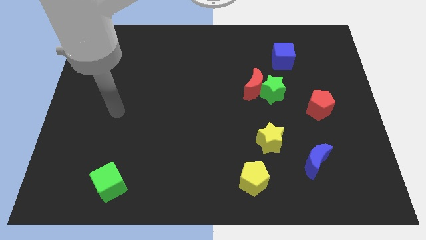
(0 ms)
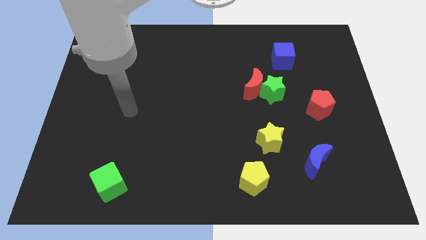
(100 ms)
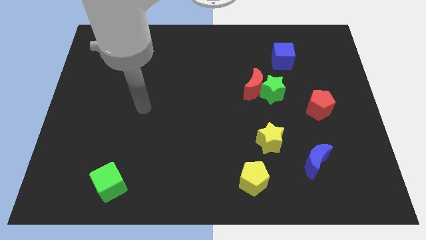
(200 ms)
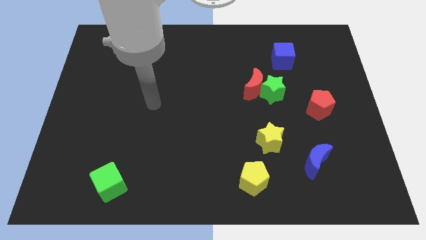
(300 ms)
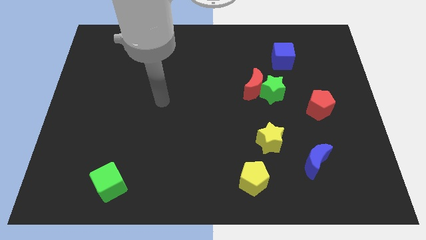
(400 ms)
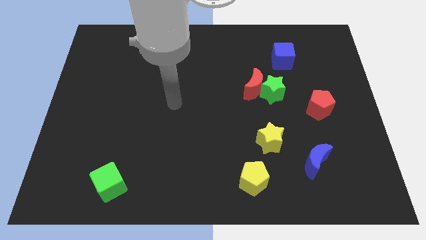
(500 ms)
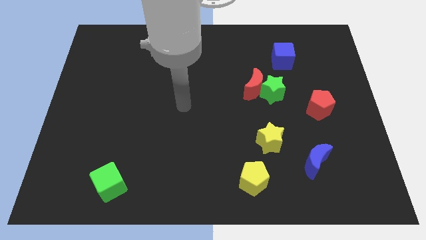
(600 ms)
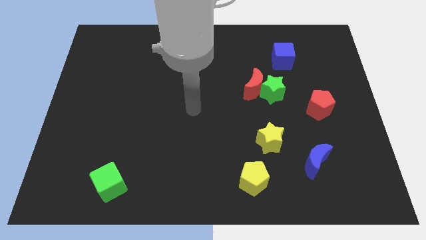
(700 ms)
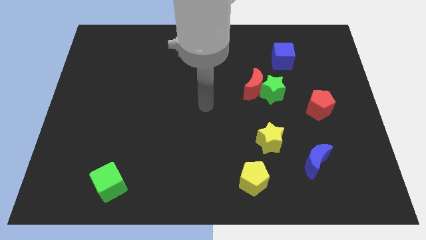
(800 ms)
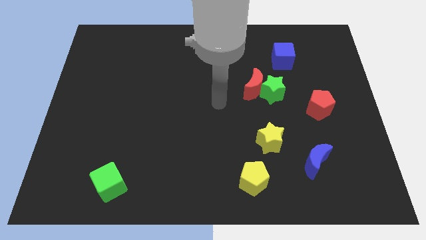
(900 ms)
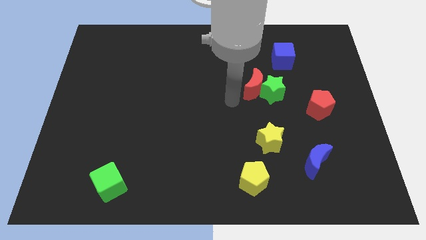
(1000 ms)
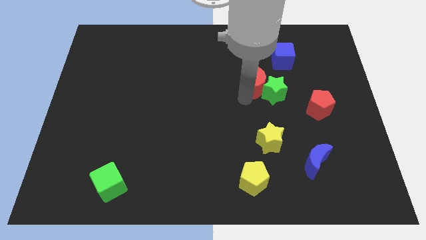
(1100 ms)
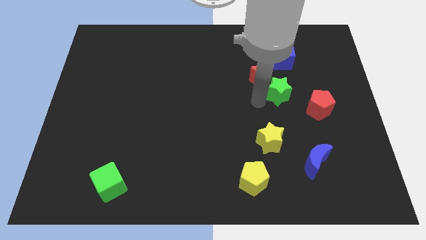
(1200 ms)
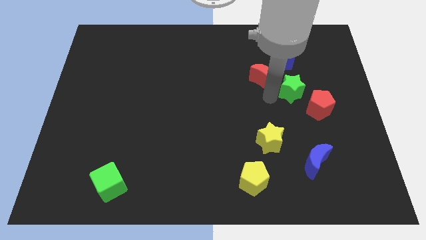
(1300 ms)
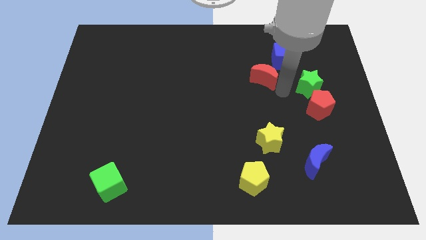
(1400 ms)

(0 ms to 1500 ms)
move the red moon away from the green star

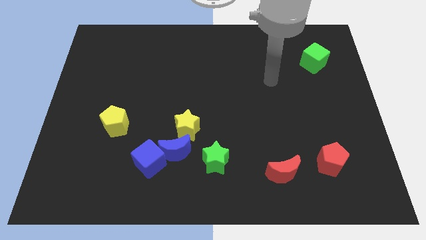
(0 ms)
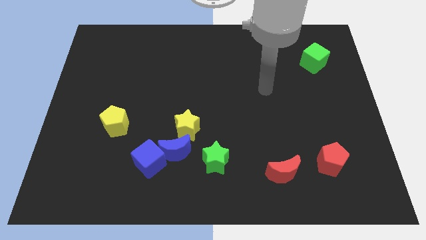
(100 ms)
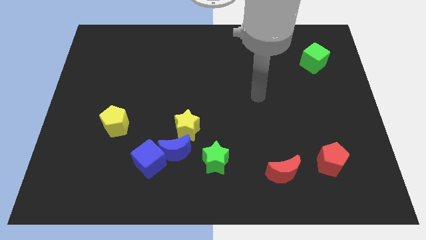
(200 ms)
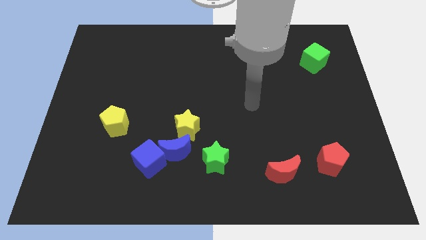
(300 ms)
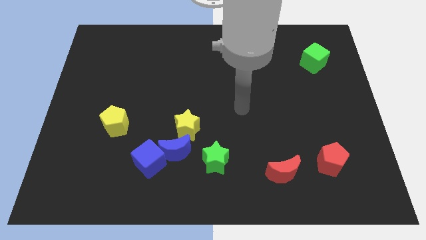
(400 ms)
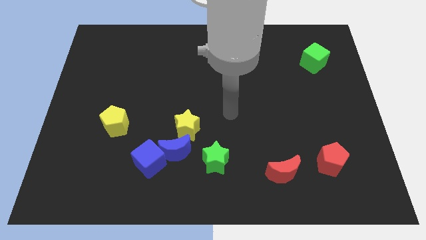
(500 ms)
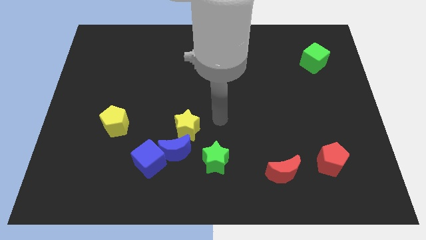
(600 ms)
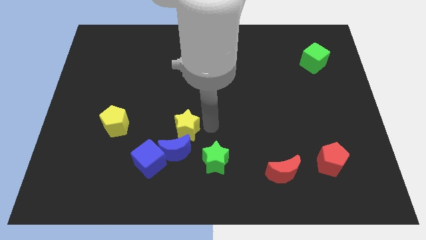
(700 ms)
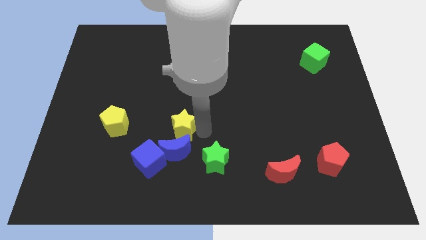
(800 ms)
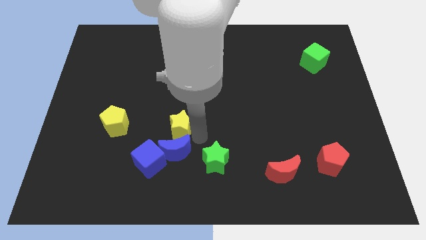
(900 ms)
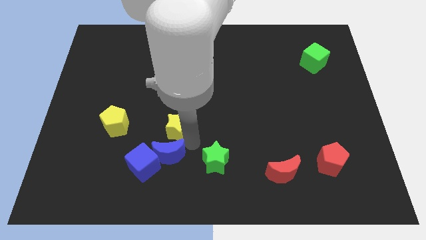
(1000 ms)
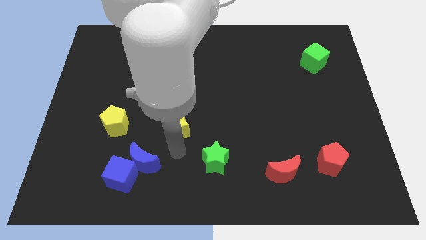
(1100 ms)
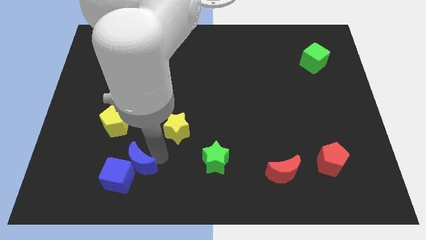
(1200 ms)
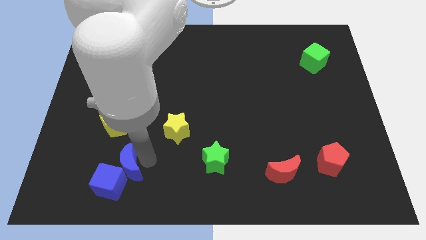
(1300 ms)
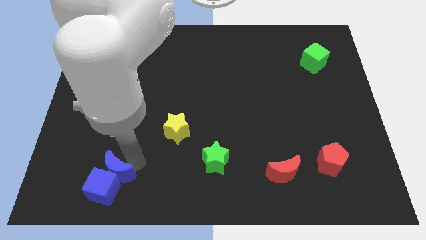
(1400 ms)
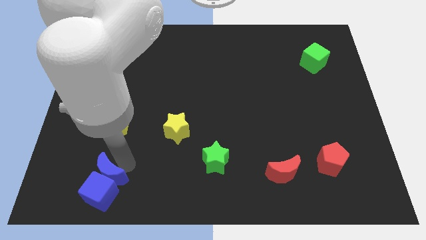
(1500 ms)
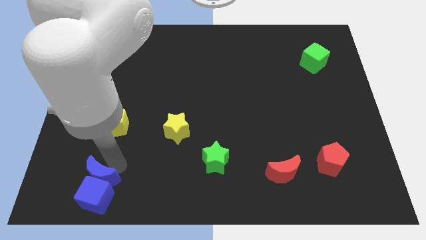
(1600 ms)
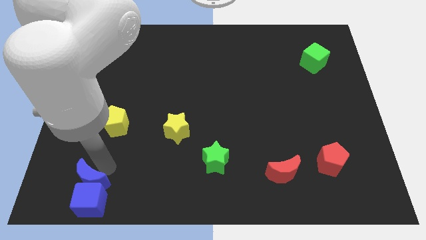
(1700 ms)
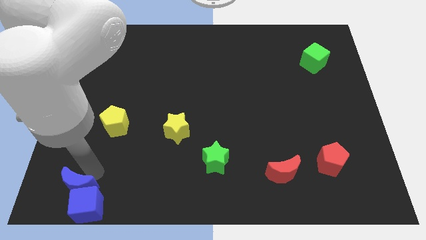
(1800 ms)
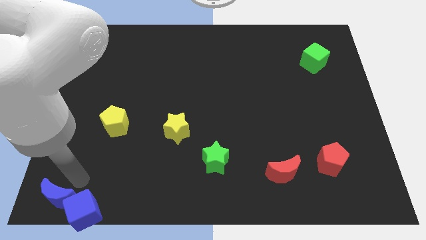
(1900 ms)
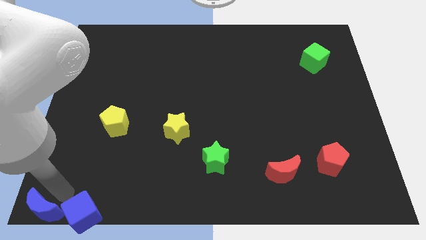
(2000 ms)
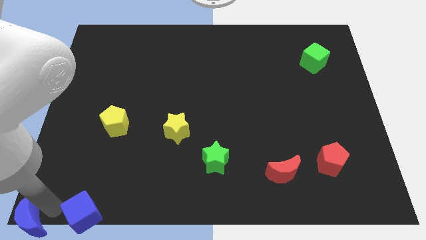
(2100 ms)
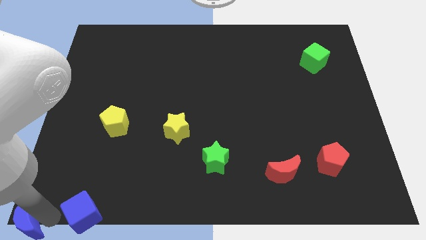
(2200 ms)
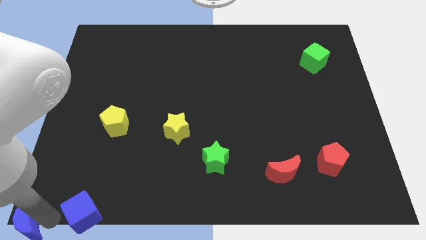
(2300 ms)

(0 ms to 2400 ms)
separate the blue cube from the blue moon

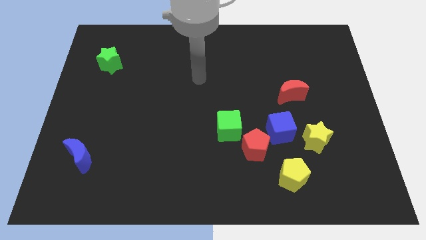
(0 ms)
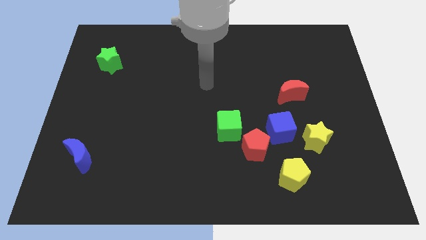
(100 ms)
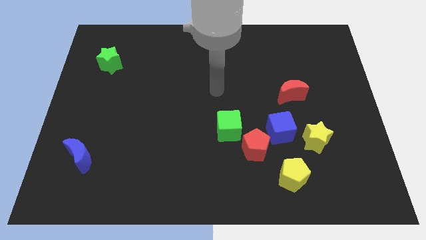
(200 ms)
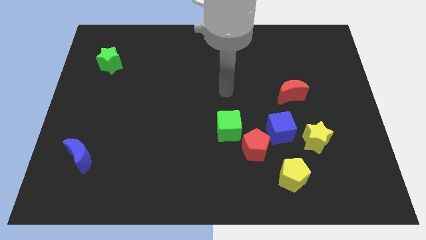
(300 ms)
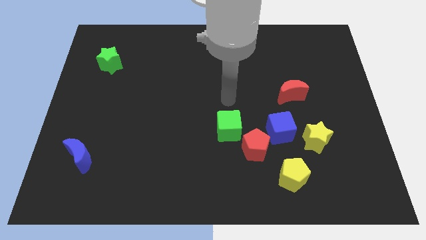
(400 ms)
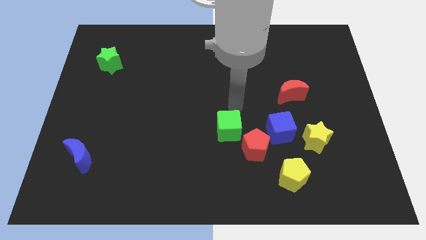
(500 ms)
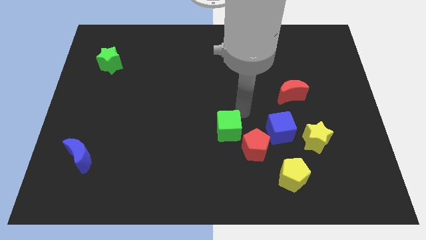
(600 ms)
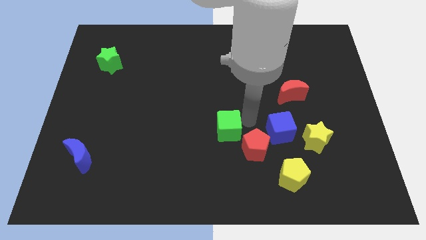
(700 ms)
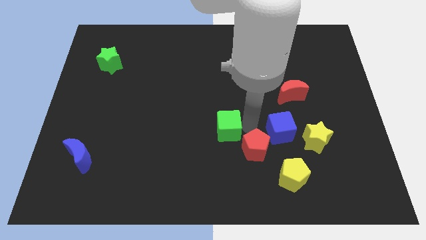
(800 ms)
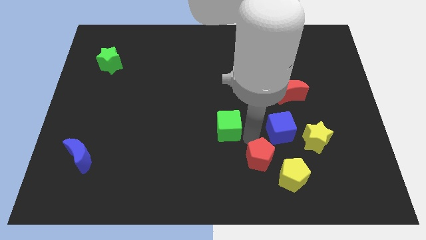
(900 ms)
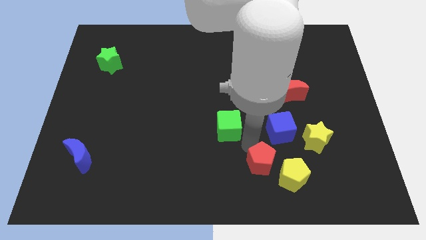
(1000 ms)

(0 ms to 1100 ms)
separate the green cube from the red pentagon

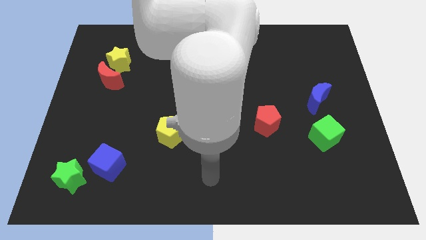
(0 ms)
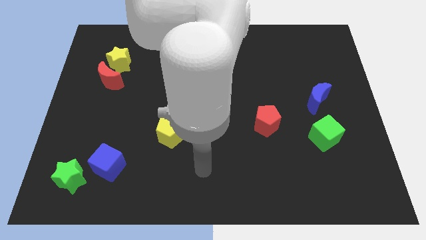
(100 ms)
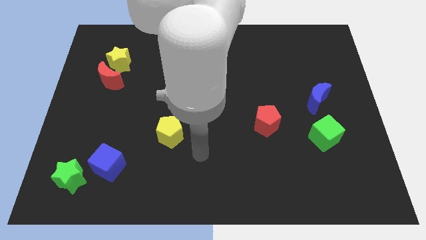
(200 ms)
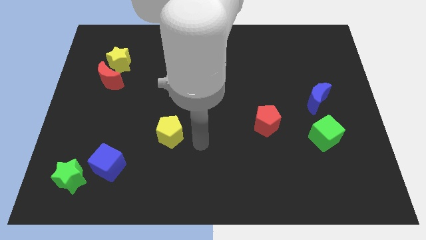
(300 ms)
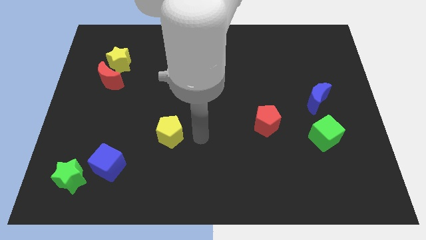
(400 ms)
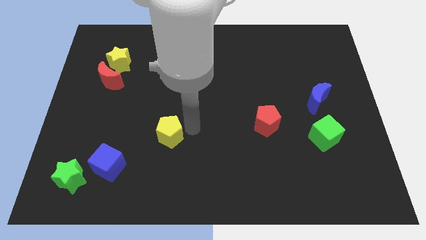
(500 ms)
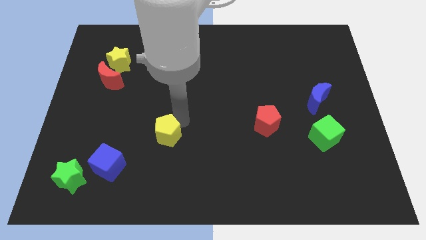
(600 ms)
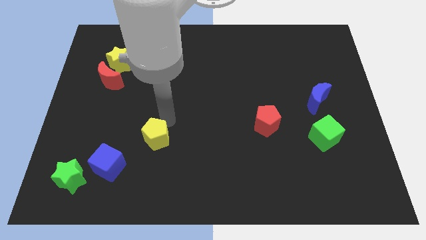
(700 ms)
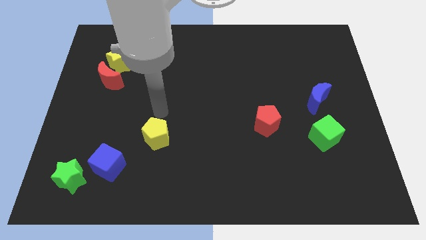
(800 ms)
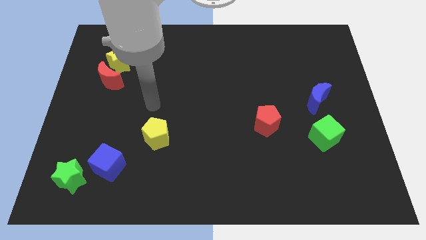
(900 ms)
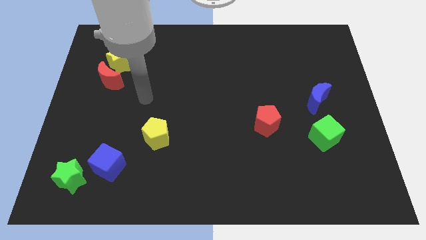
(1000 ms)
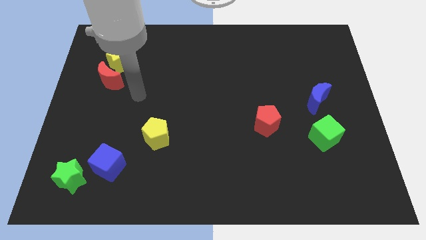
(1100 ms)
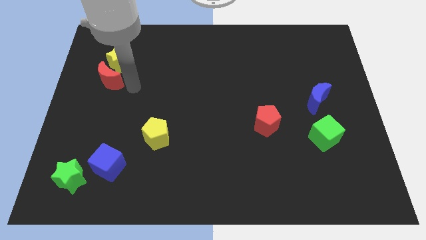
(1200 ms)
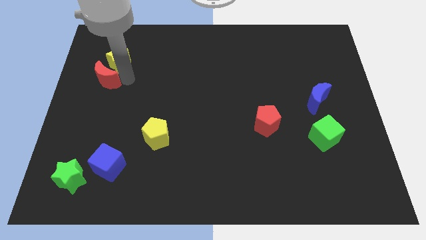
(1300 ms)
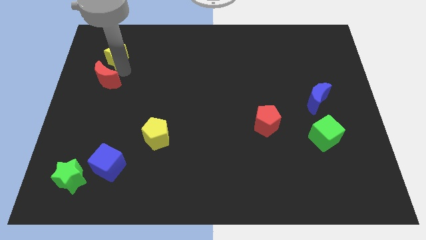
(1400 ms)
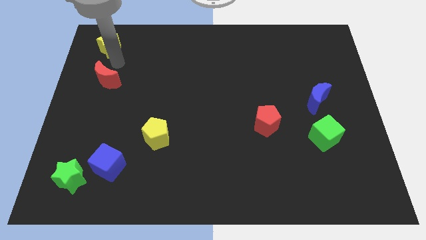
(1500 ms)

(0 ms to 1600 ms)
move the red moon away from the yellow star

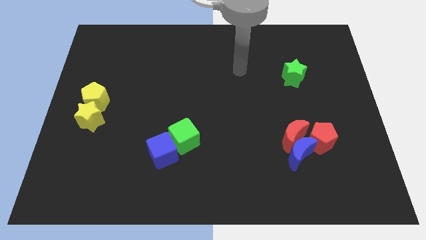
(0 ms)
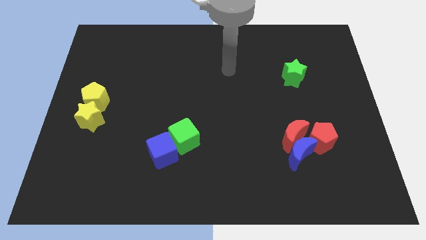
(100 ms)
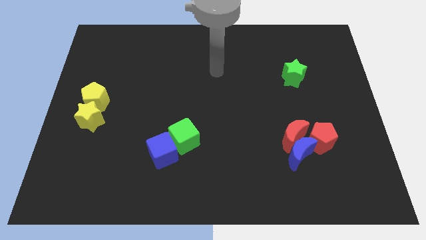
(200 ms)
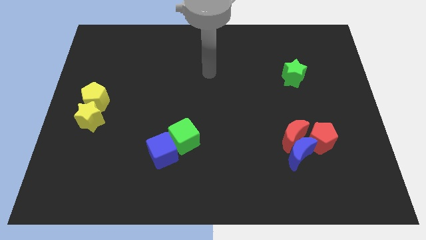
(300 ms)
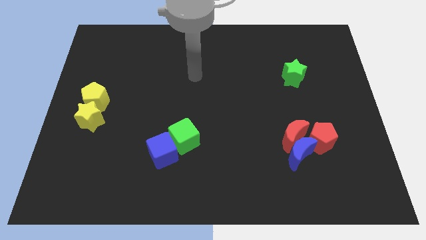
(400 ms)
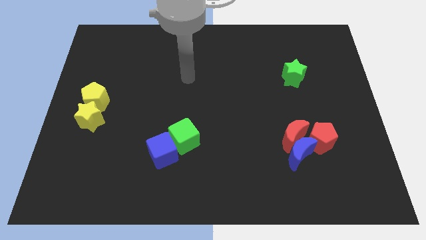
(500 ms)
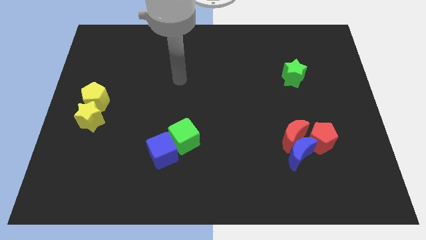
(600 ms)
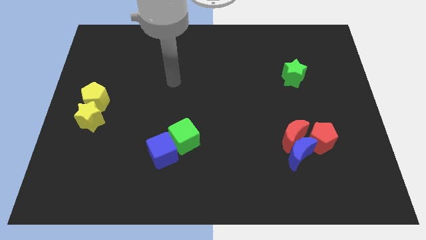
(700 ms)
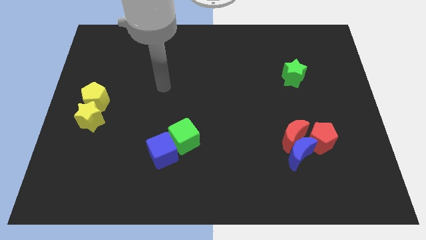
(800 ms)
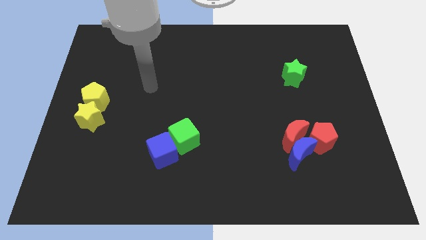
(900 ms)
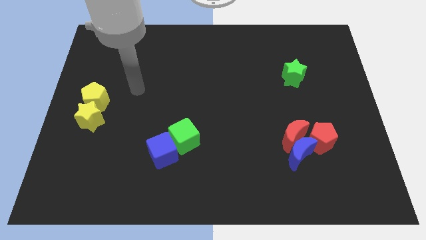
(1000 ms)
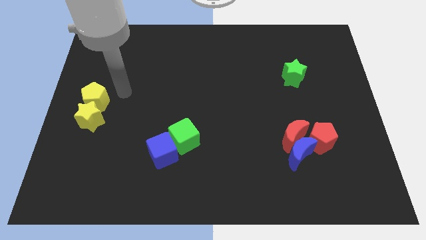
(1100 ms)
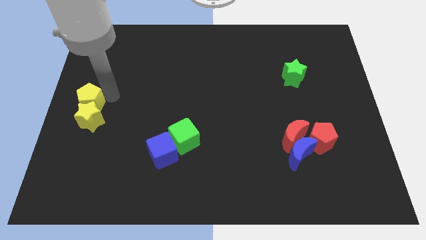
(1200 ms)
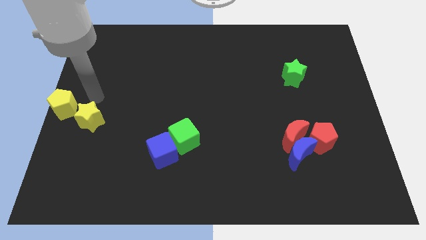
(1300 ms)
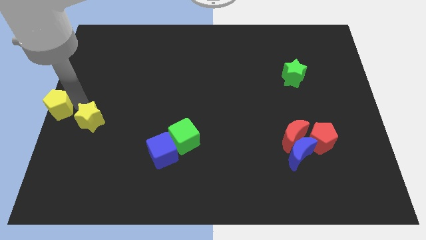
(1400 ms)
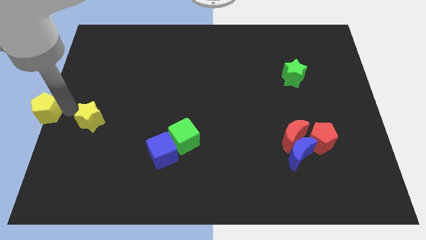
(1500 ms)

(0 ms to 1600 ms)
move the yellow star away from the yellow pentagon

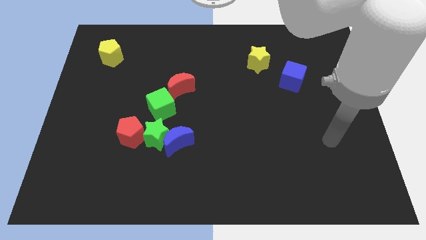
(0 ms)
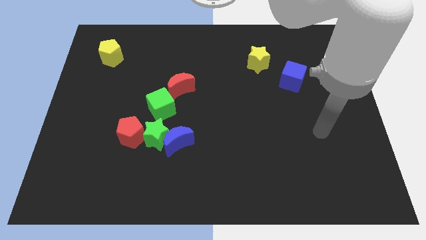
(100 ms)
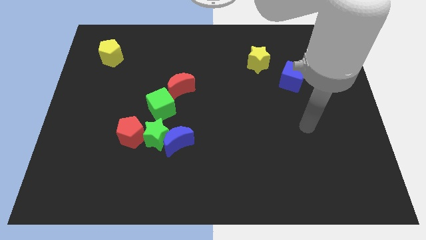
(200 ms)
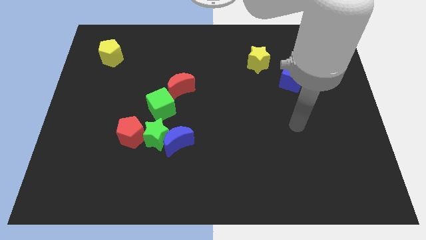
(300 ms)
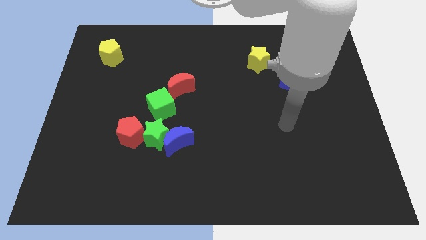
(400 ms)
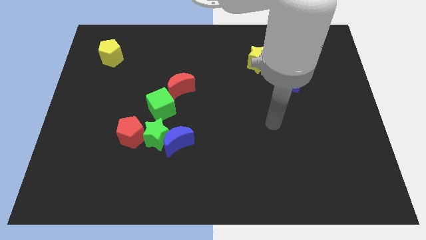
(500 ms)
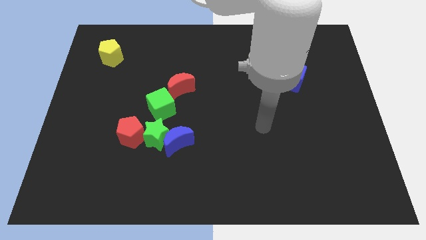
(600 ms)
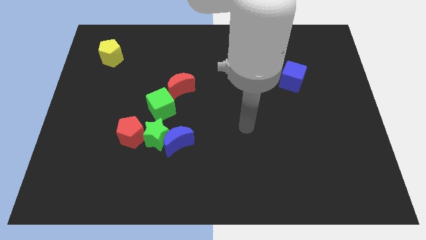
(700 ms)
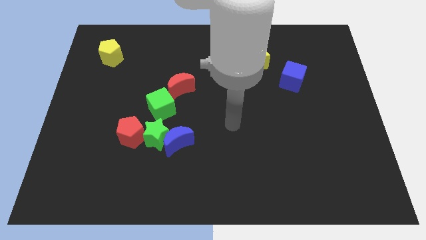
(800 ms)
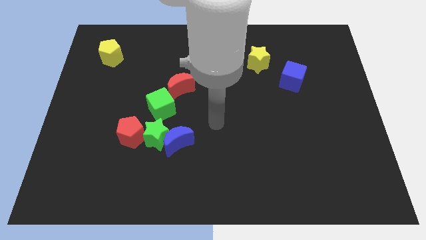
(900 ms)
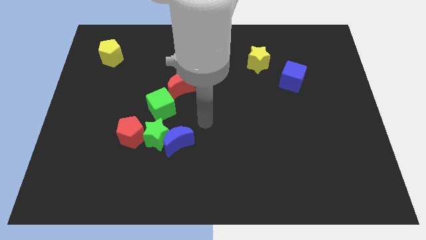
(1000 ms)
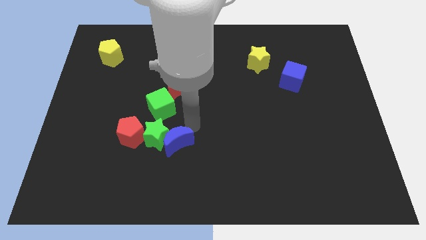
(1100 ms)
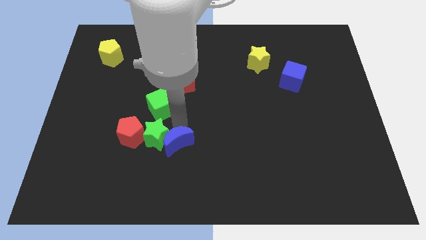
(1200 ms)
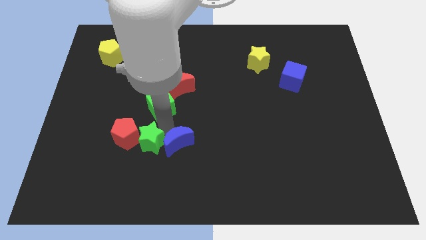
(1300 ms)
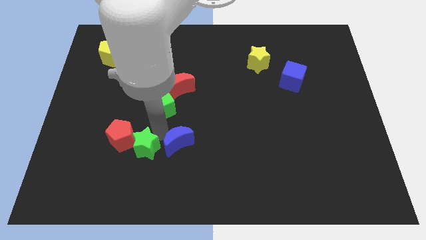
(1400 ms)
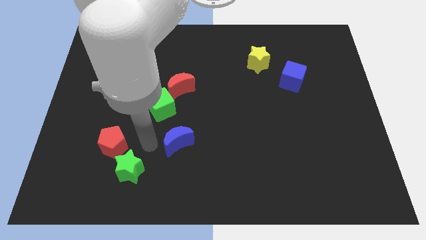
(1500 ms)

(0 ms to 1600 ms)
pull the blue moon apart from the green star
